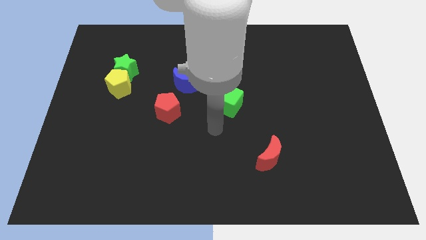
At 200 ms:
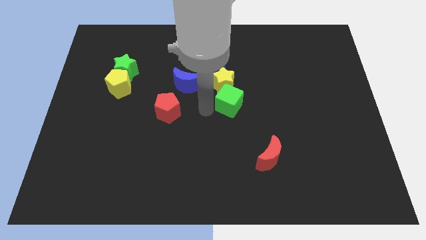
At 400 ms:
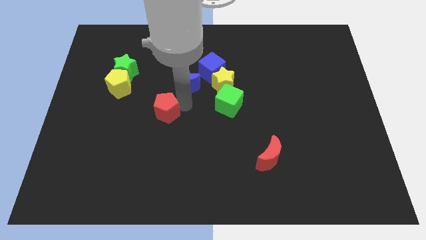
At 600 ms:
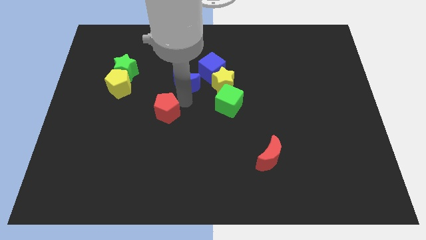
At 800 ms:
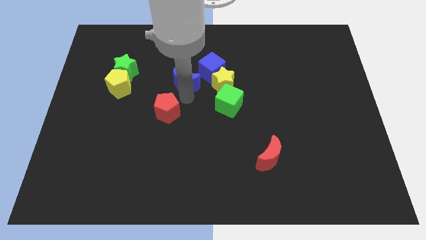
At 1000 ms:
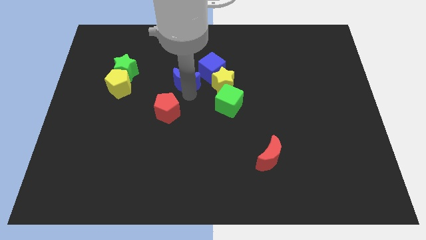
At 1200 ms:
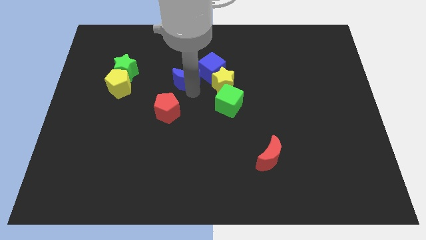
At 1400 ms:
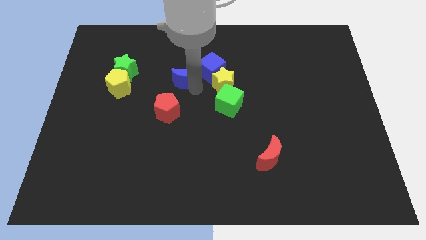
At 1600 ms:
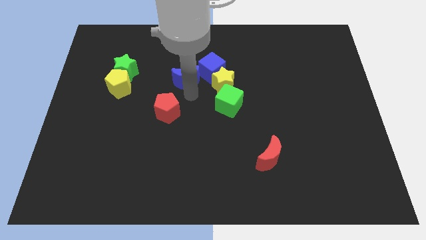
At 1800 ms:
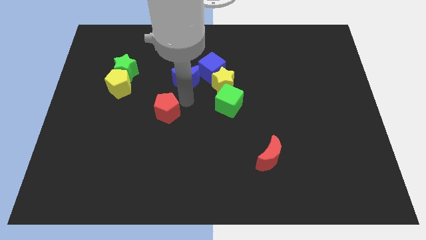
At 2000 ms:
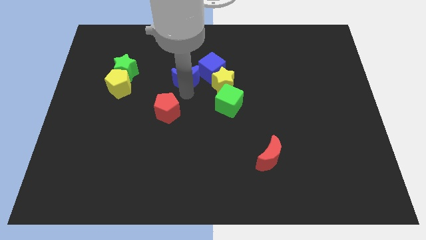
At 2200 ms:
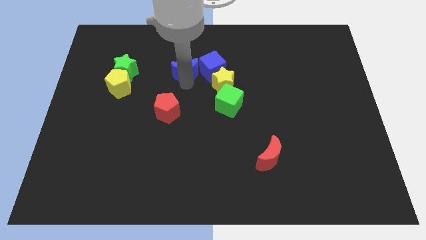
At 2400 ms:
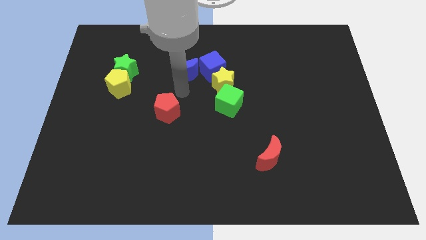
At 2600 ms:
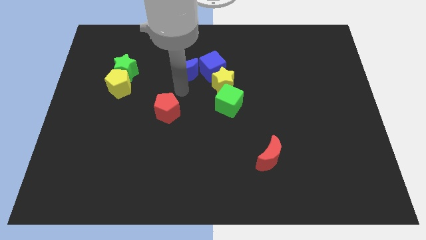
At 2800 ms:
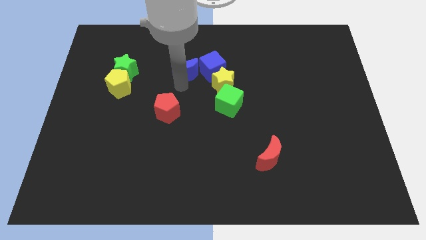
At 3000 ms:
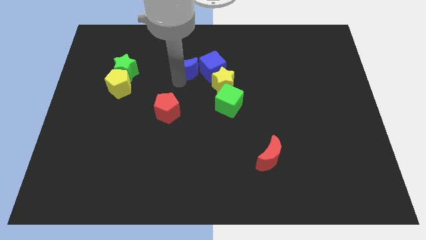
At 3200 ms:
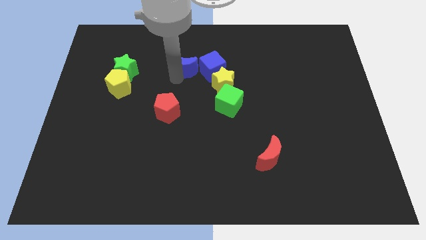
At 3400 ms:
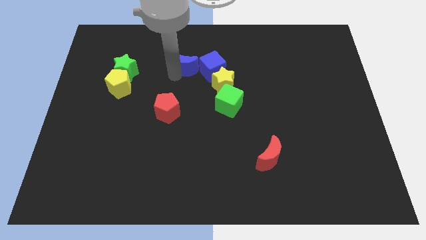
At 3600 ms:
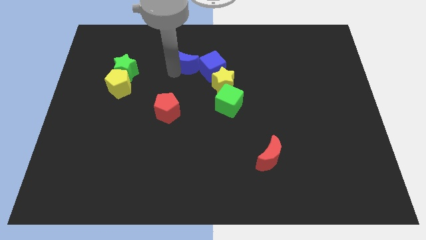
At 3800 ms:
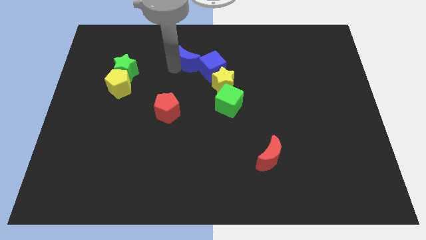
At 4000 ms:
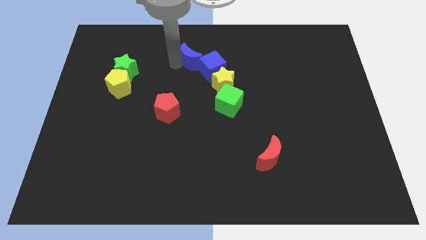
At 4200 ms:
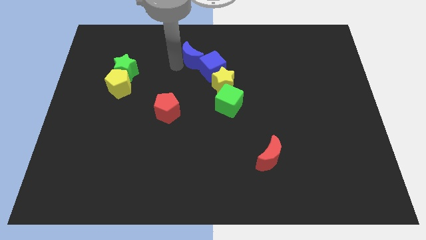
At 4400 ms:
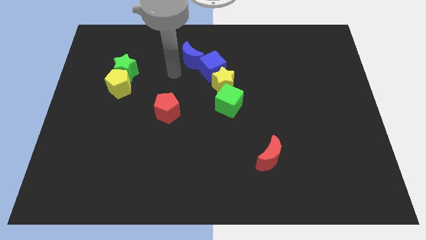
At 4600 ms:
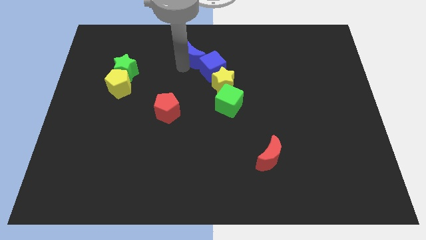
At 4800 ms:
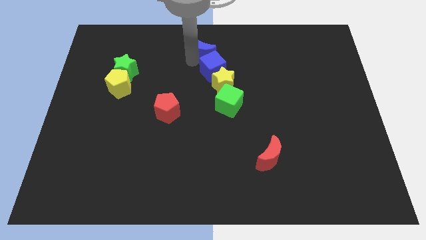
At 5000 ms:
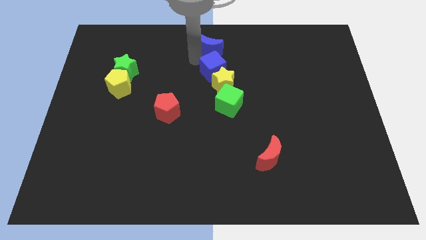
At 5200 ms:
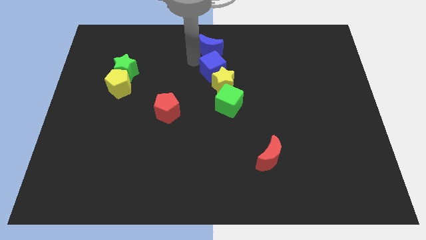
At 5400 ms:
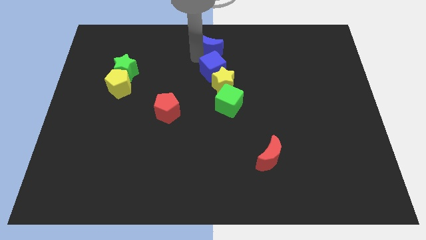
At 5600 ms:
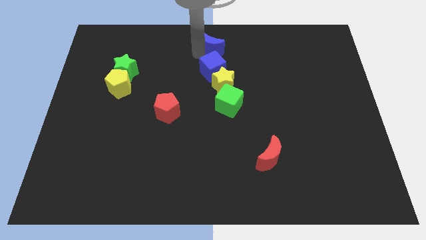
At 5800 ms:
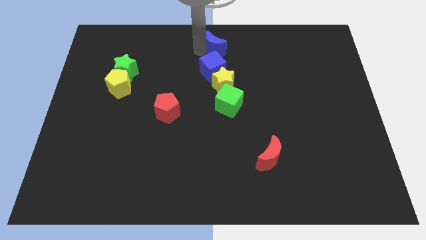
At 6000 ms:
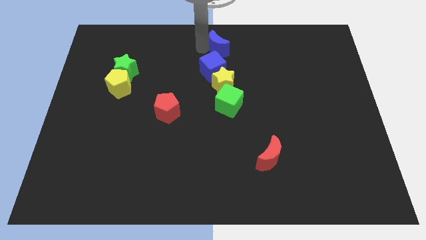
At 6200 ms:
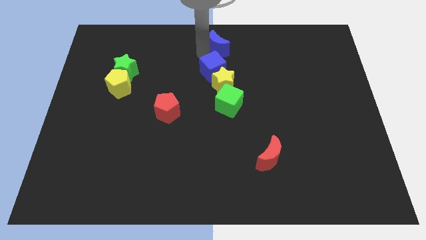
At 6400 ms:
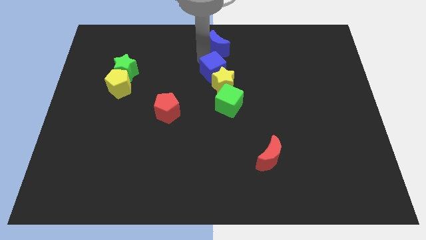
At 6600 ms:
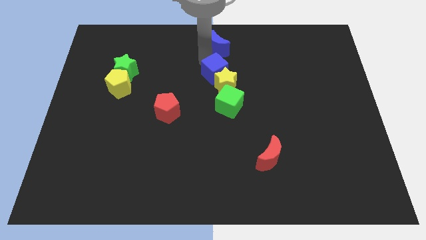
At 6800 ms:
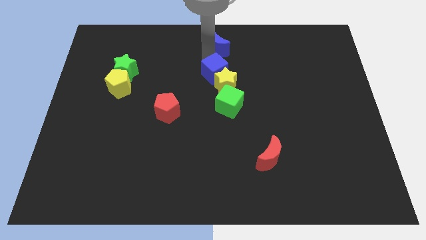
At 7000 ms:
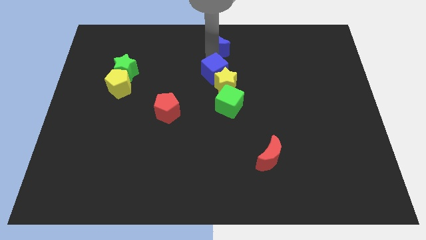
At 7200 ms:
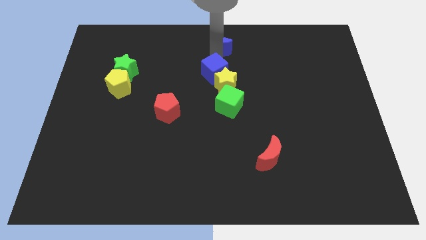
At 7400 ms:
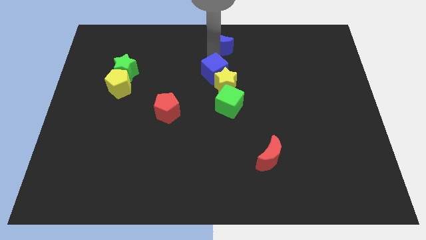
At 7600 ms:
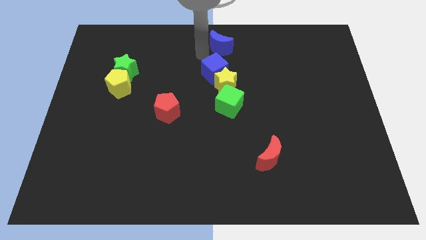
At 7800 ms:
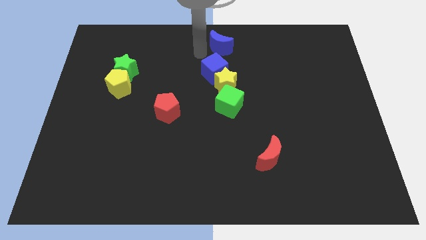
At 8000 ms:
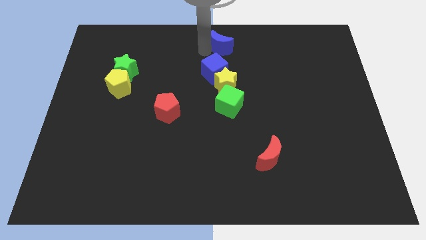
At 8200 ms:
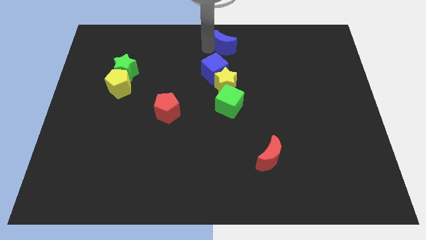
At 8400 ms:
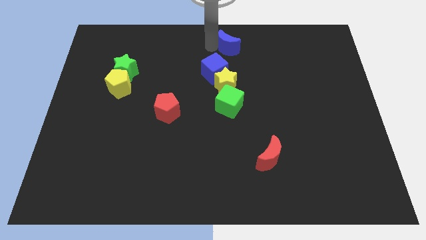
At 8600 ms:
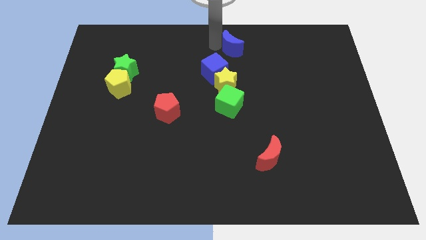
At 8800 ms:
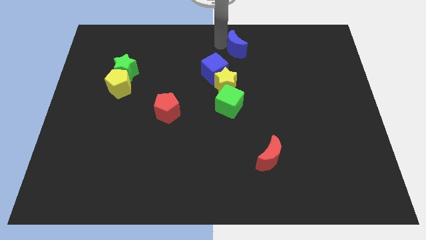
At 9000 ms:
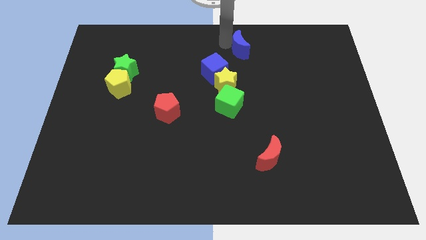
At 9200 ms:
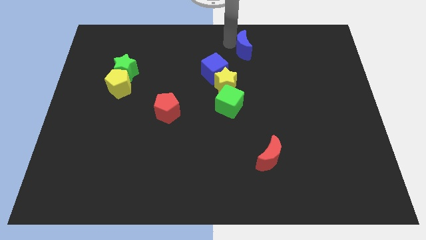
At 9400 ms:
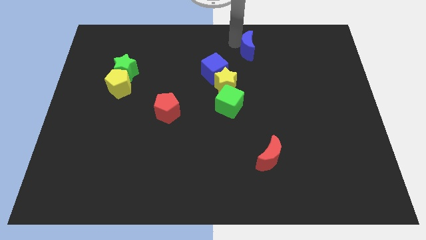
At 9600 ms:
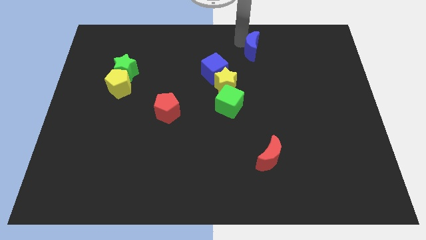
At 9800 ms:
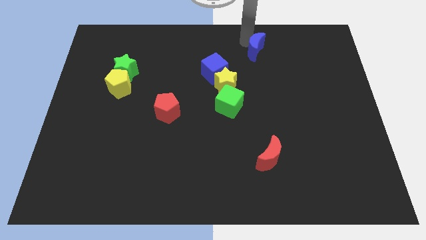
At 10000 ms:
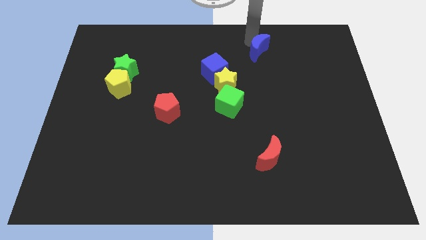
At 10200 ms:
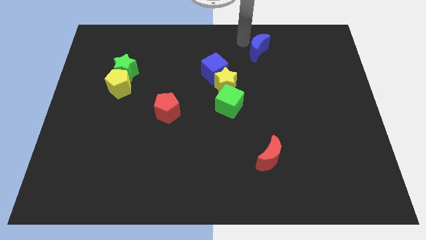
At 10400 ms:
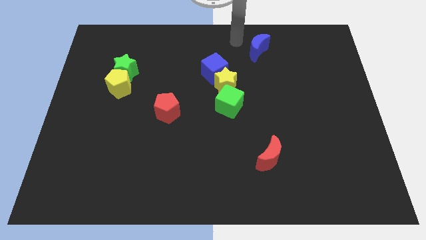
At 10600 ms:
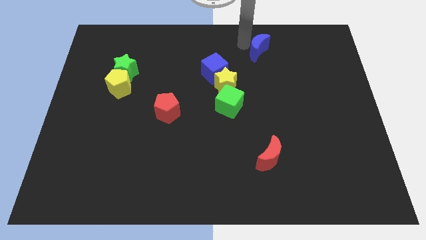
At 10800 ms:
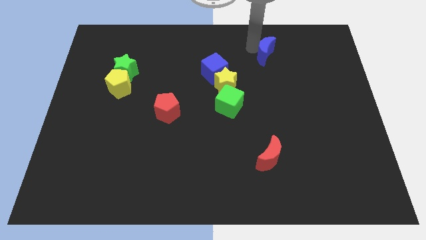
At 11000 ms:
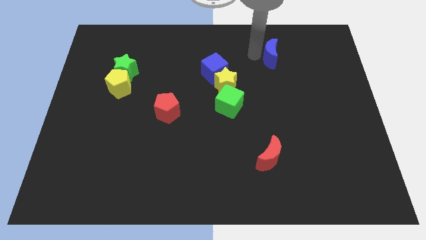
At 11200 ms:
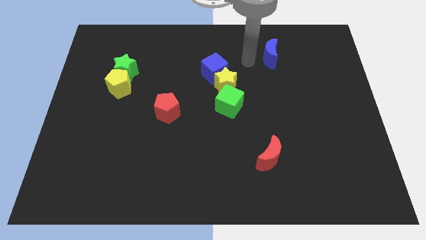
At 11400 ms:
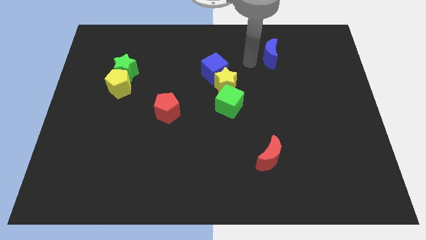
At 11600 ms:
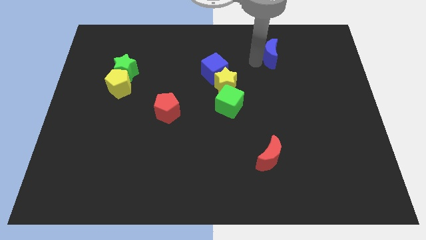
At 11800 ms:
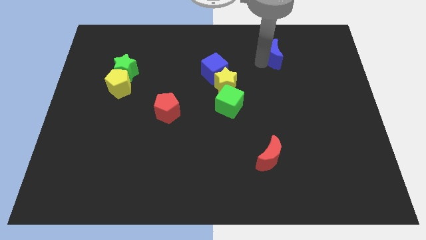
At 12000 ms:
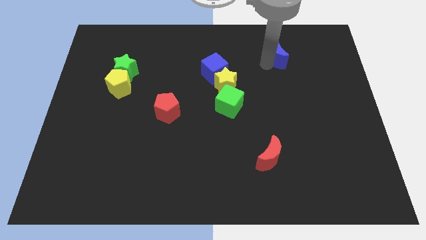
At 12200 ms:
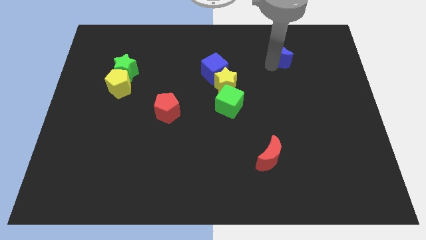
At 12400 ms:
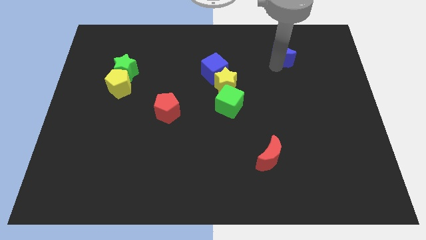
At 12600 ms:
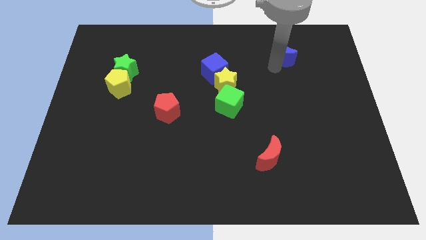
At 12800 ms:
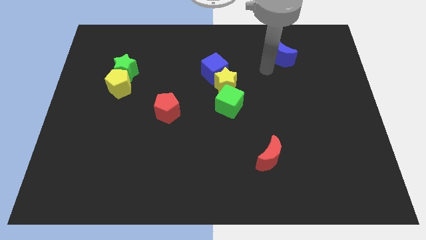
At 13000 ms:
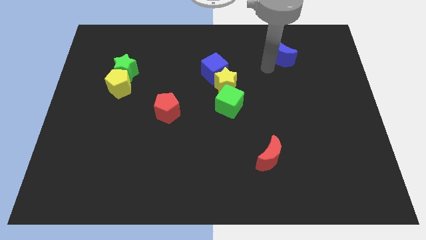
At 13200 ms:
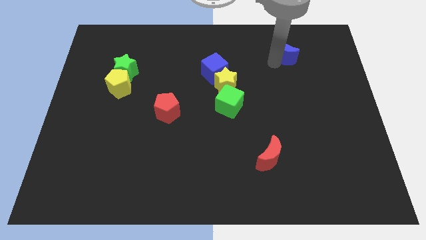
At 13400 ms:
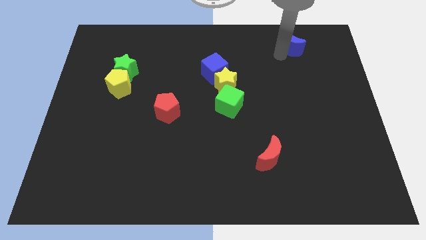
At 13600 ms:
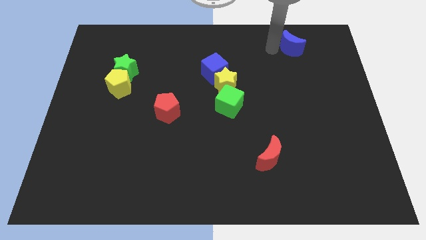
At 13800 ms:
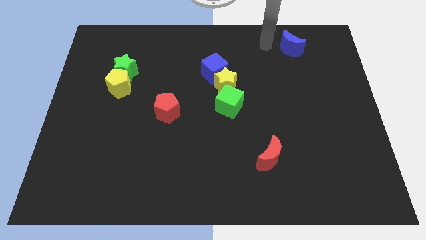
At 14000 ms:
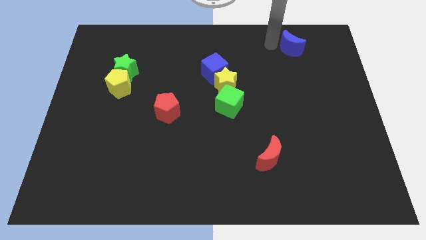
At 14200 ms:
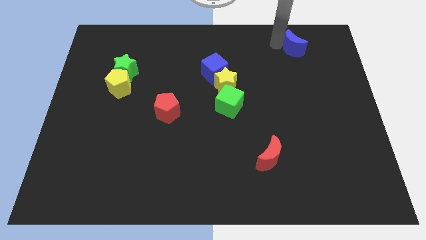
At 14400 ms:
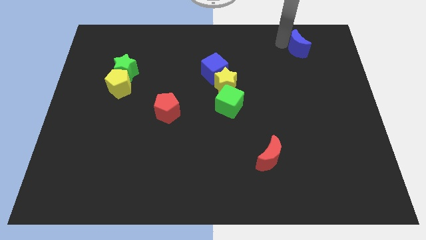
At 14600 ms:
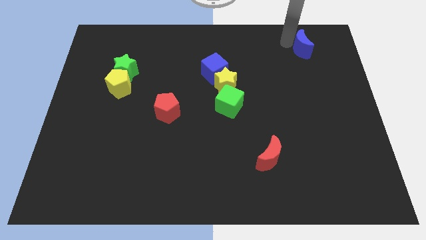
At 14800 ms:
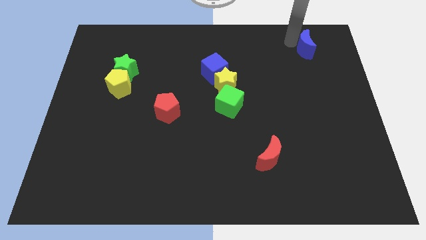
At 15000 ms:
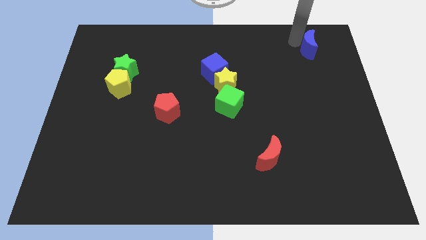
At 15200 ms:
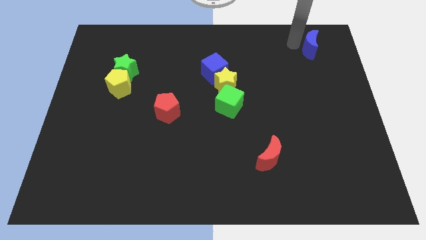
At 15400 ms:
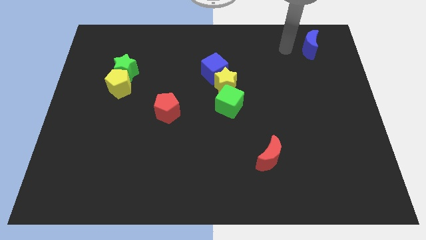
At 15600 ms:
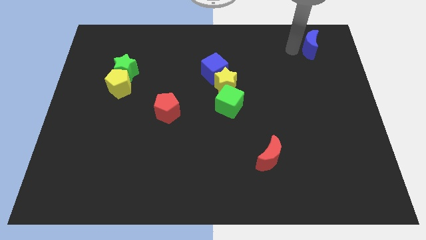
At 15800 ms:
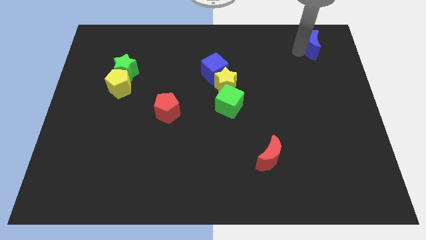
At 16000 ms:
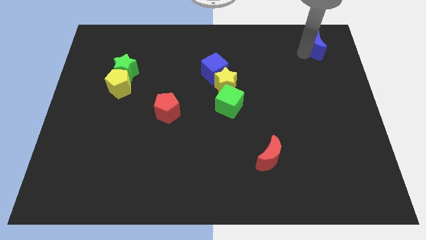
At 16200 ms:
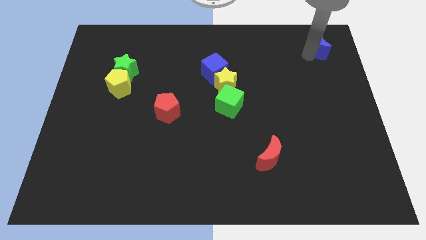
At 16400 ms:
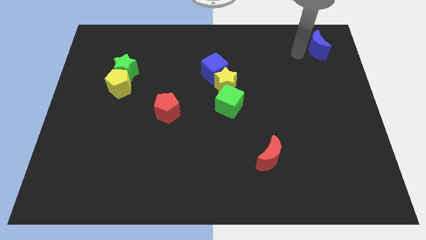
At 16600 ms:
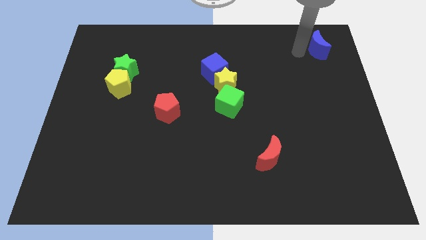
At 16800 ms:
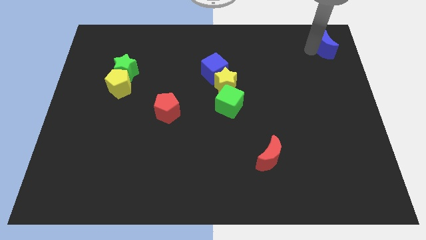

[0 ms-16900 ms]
put the blue moon to the top right of the board
